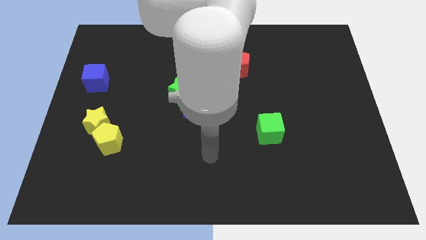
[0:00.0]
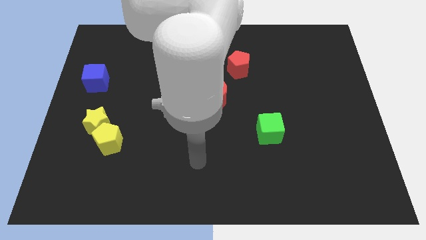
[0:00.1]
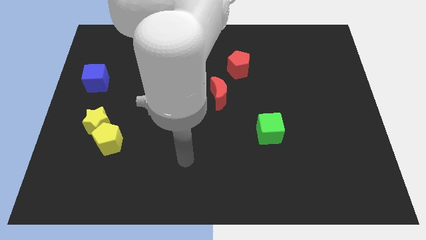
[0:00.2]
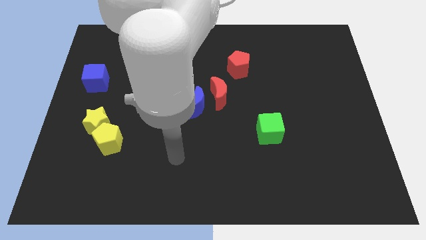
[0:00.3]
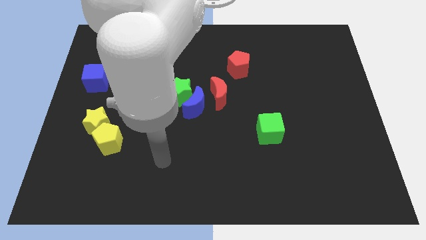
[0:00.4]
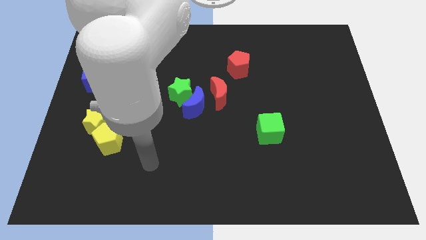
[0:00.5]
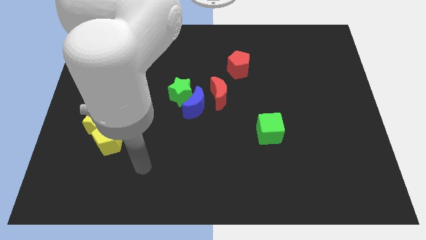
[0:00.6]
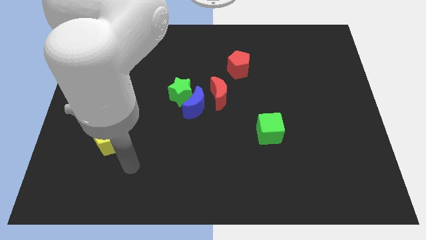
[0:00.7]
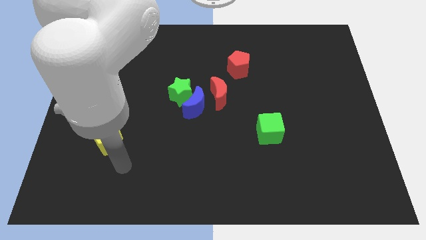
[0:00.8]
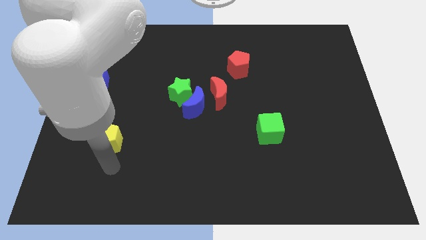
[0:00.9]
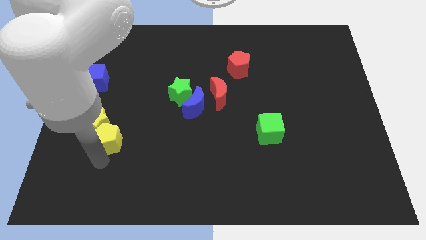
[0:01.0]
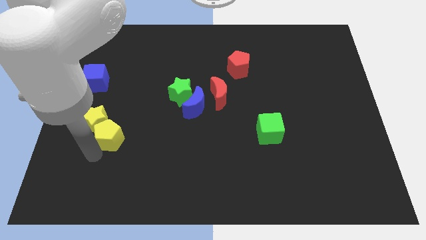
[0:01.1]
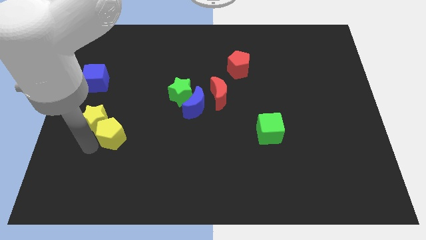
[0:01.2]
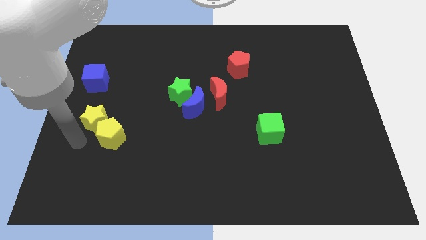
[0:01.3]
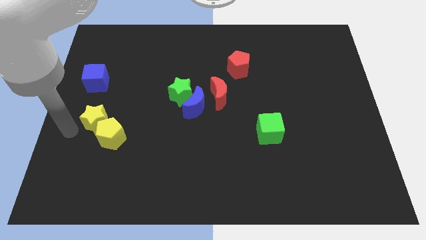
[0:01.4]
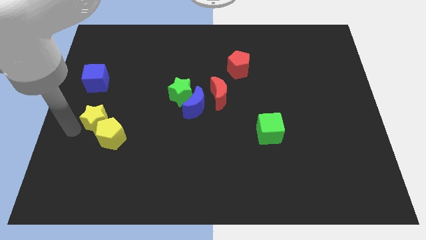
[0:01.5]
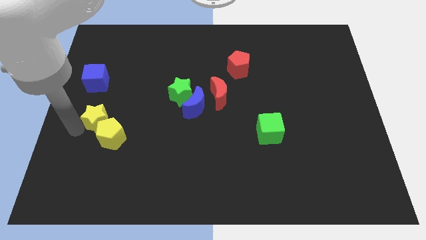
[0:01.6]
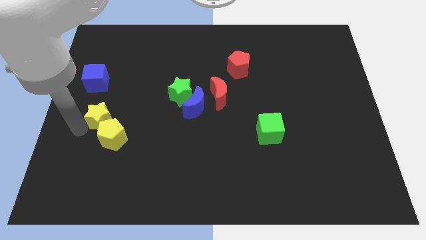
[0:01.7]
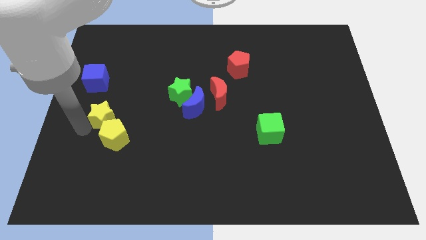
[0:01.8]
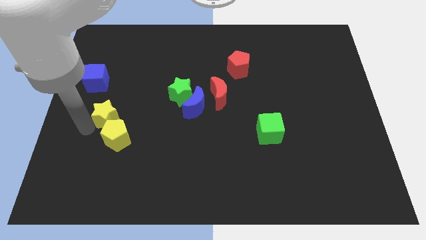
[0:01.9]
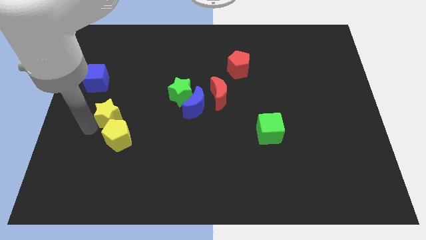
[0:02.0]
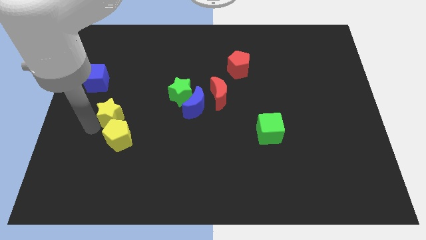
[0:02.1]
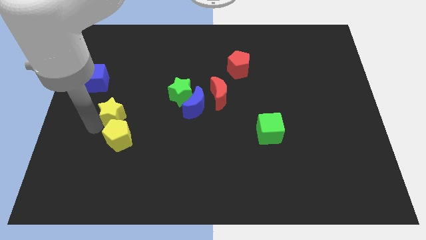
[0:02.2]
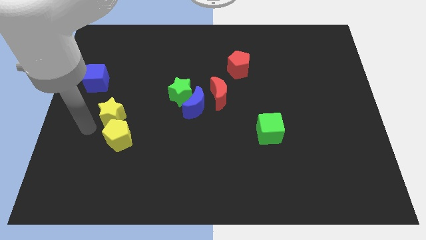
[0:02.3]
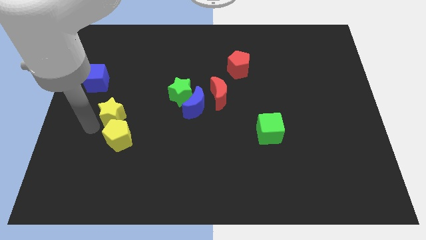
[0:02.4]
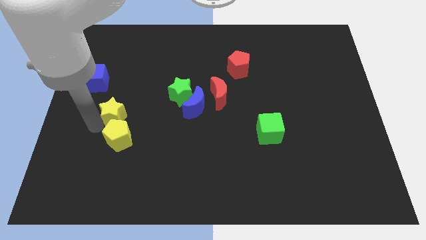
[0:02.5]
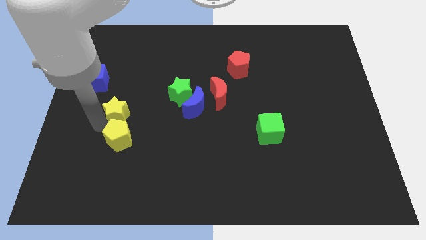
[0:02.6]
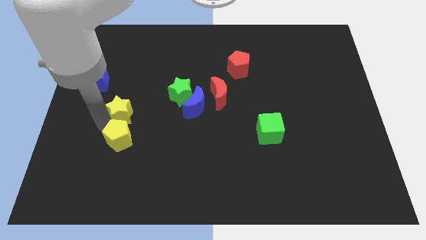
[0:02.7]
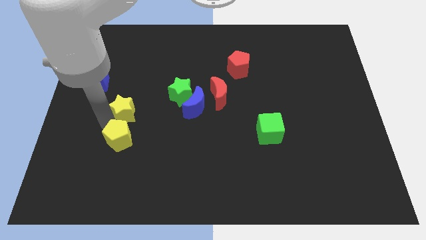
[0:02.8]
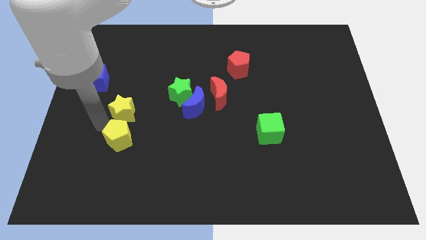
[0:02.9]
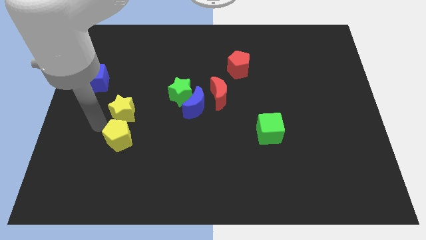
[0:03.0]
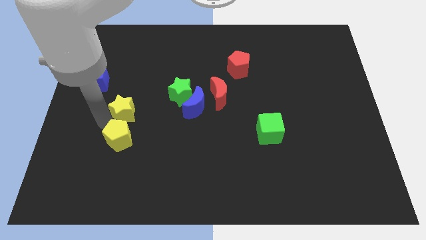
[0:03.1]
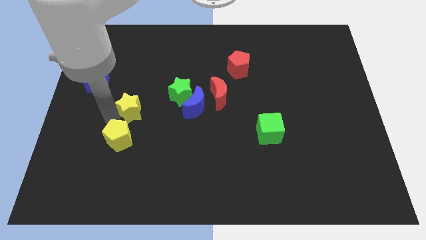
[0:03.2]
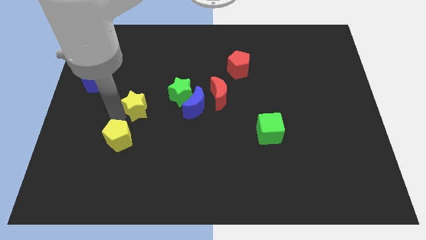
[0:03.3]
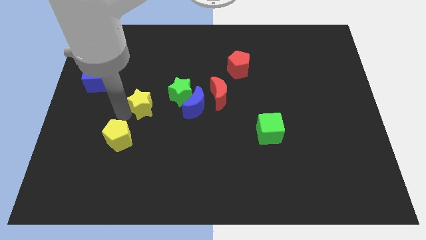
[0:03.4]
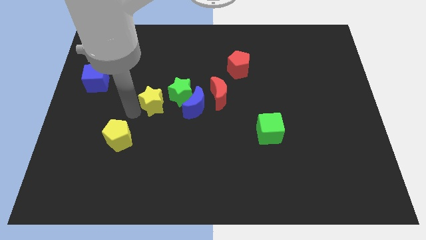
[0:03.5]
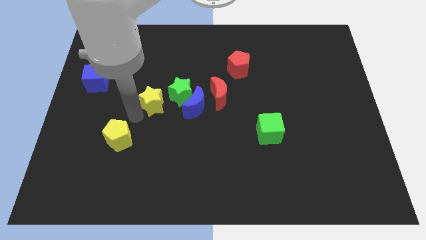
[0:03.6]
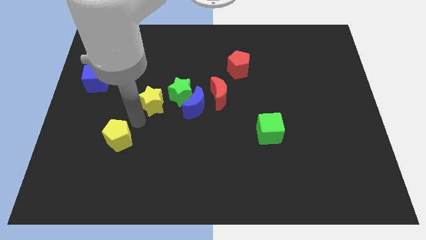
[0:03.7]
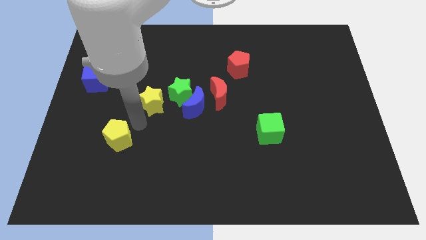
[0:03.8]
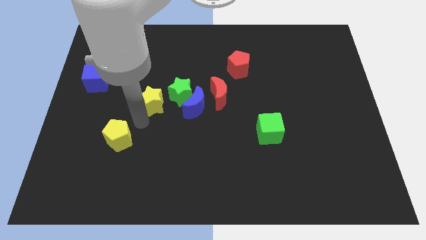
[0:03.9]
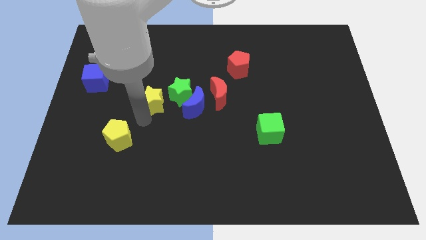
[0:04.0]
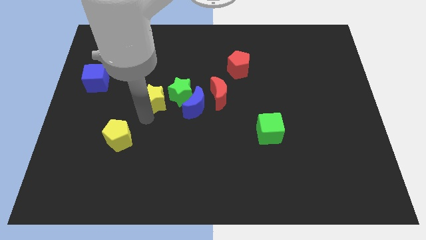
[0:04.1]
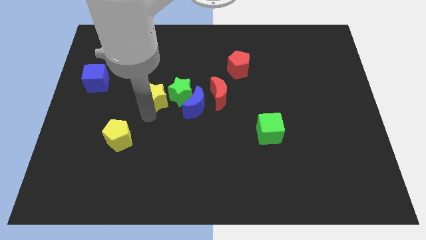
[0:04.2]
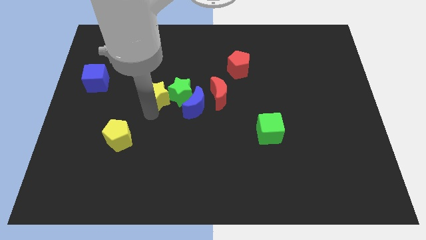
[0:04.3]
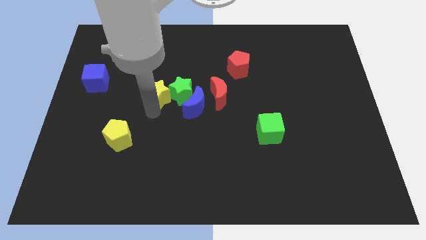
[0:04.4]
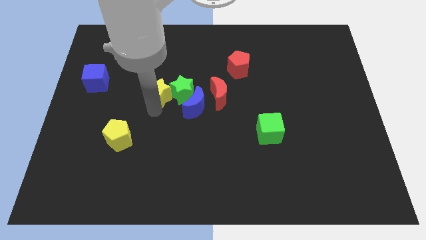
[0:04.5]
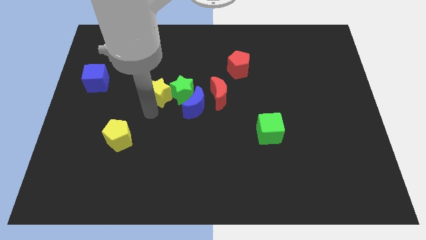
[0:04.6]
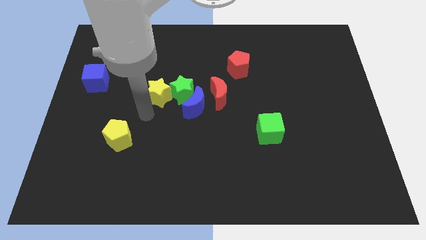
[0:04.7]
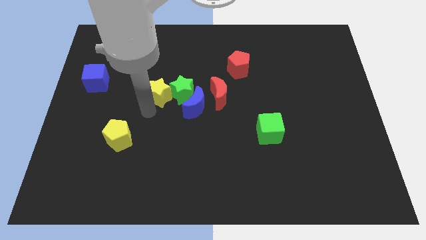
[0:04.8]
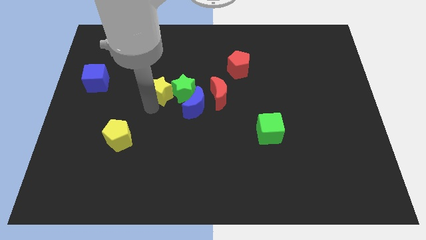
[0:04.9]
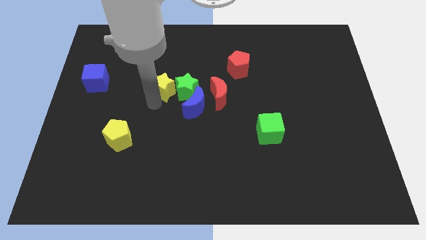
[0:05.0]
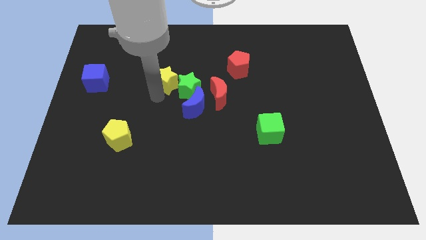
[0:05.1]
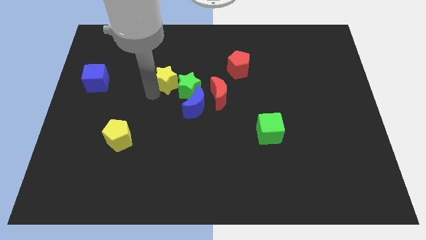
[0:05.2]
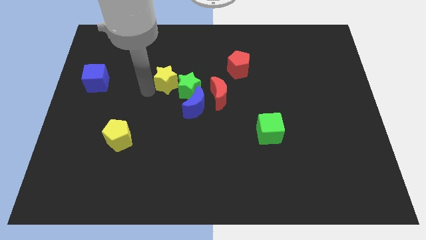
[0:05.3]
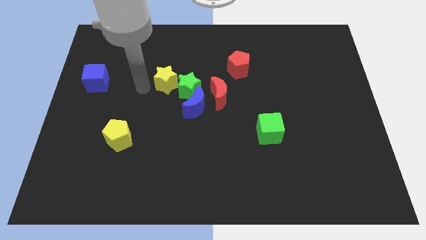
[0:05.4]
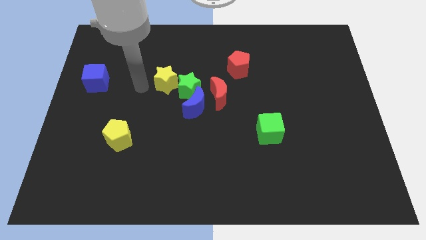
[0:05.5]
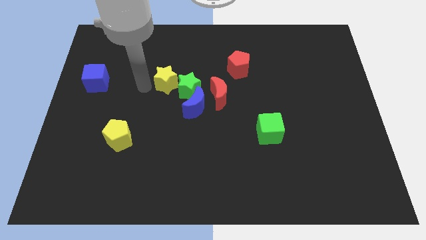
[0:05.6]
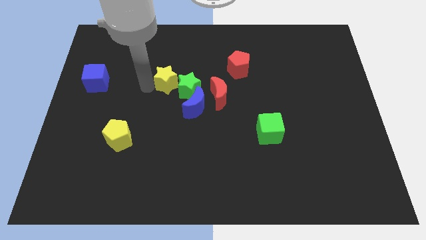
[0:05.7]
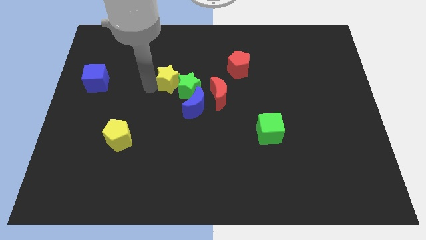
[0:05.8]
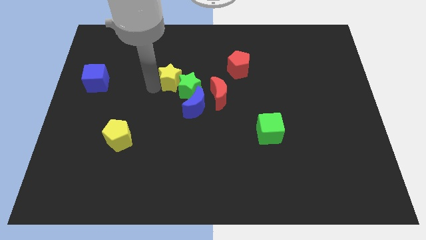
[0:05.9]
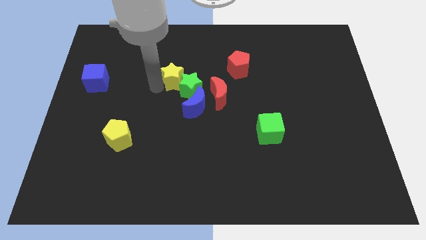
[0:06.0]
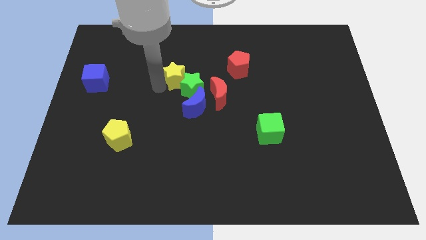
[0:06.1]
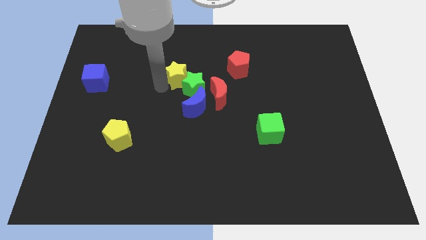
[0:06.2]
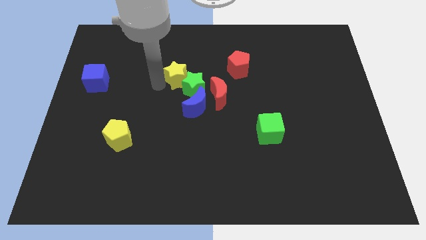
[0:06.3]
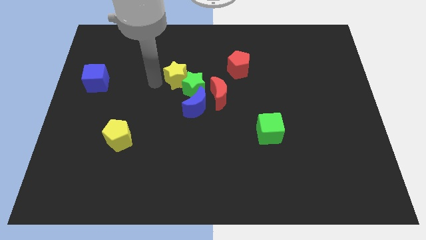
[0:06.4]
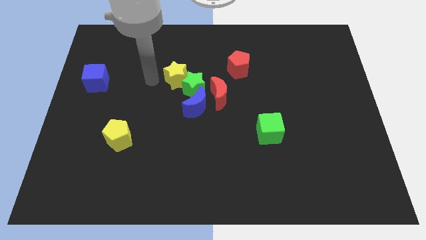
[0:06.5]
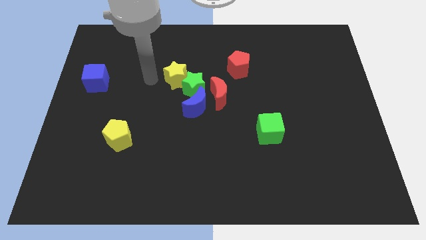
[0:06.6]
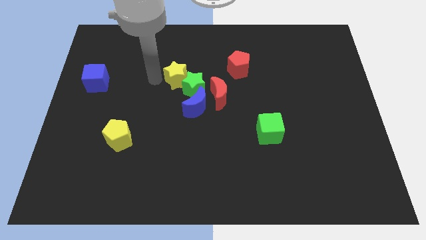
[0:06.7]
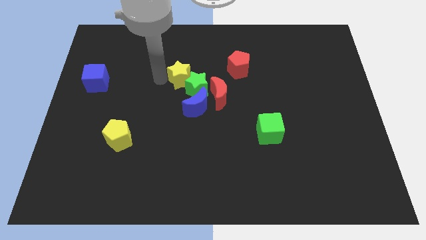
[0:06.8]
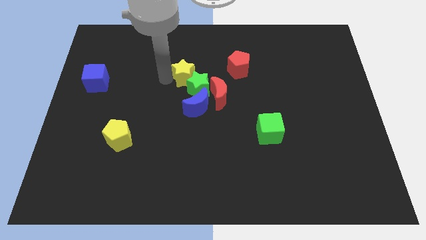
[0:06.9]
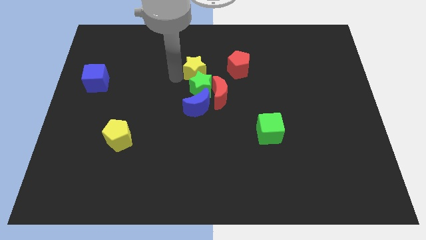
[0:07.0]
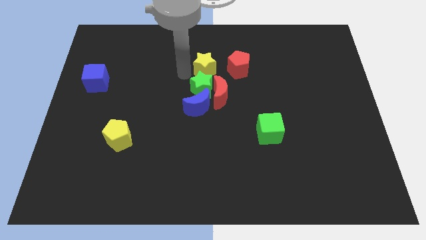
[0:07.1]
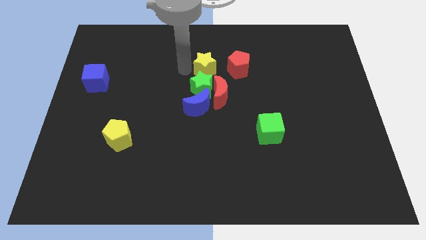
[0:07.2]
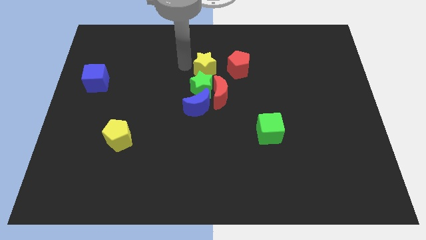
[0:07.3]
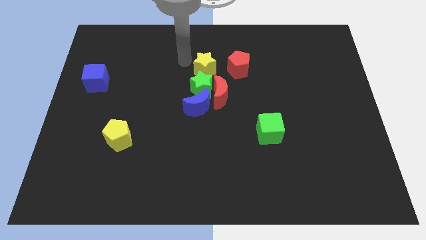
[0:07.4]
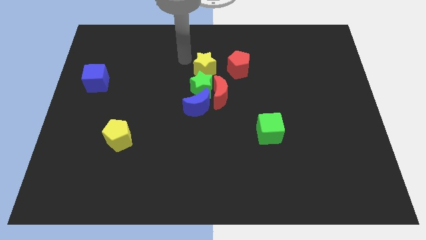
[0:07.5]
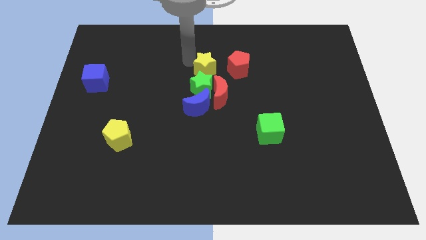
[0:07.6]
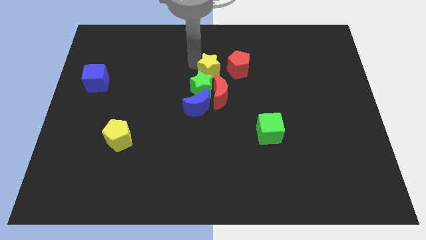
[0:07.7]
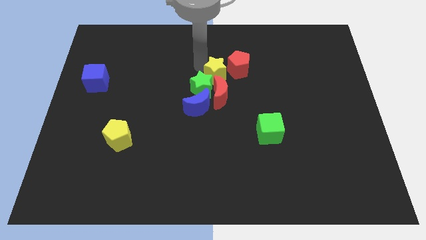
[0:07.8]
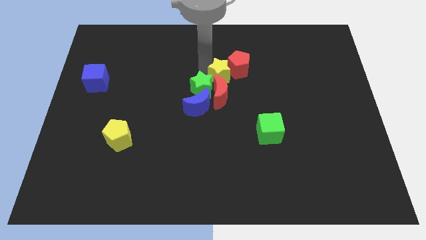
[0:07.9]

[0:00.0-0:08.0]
slide the yellow star to the top right side of the red moon

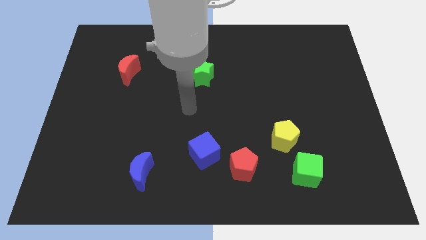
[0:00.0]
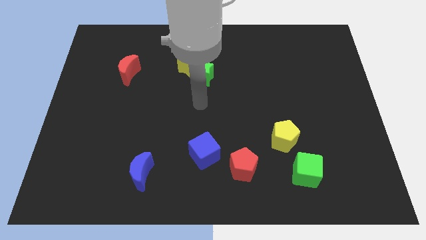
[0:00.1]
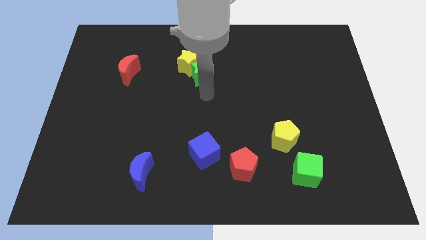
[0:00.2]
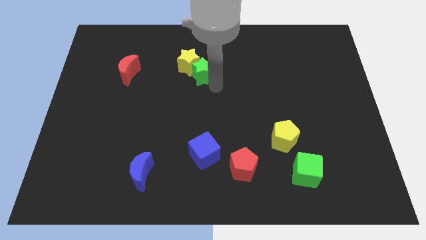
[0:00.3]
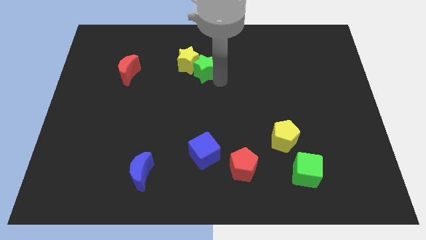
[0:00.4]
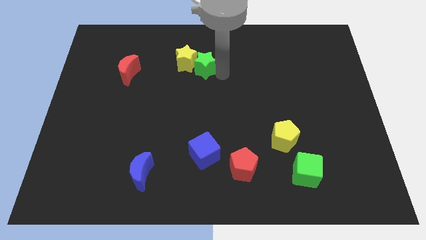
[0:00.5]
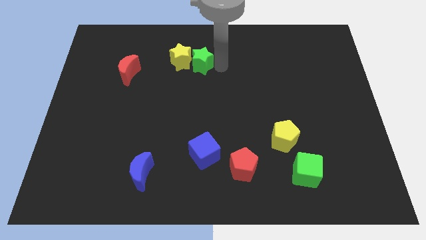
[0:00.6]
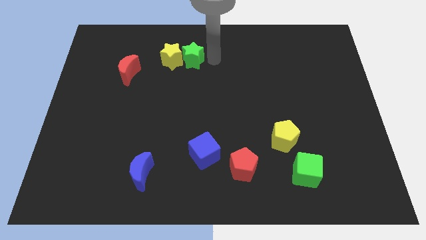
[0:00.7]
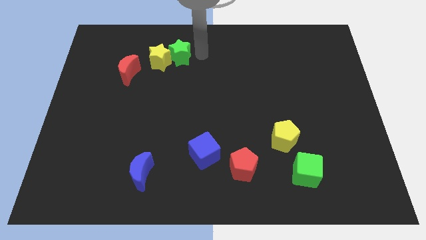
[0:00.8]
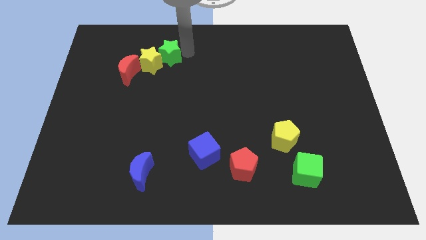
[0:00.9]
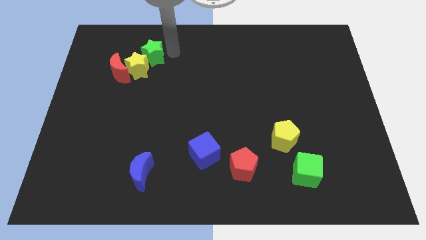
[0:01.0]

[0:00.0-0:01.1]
move the yellow star diagonally down and to the right of the red moon
